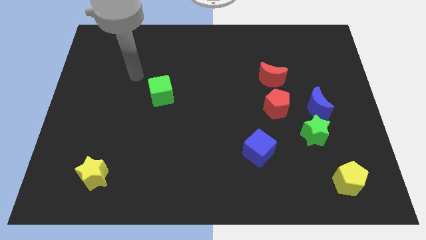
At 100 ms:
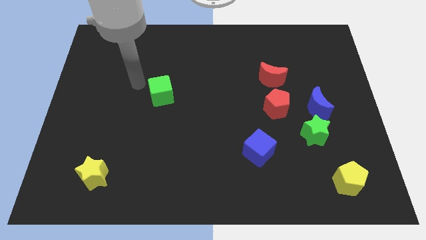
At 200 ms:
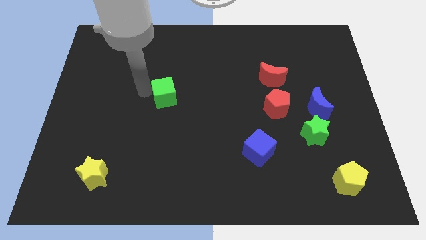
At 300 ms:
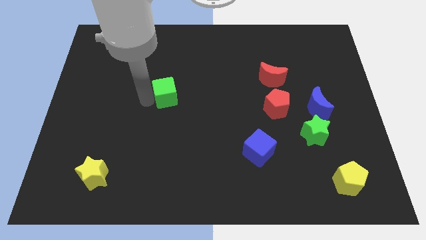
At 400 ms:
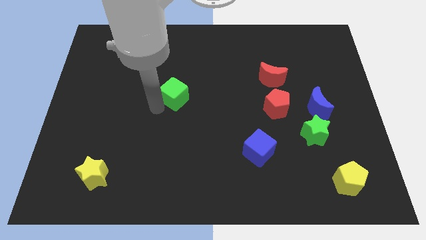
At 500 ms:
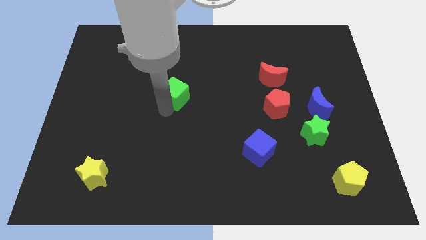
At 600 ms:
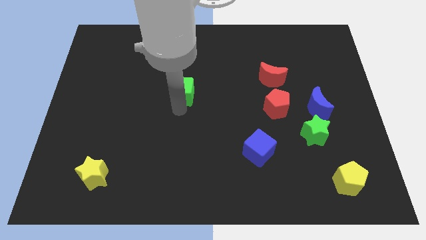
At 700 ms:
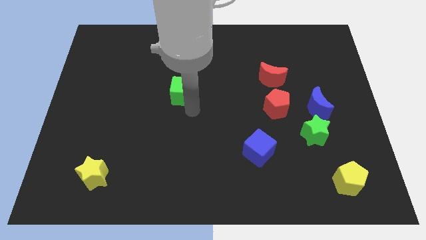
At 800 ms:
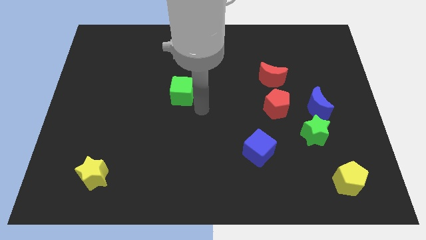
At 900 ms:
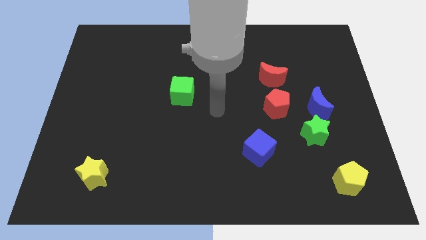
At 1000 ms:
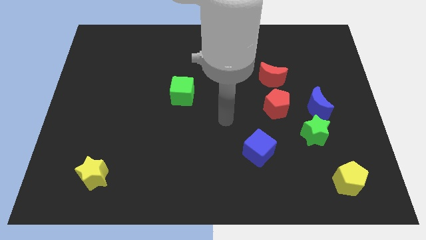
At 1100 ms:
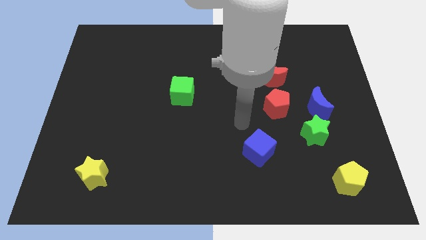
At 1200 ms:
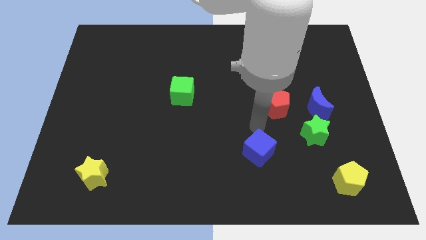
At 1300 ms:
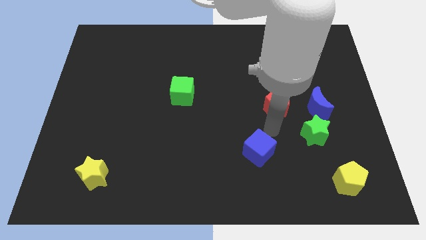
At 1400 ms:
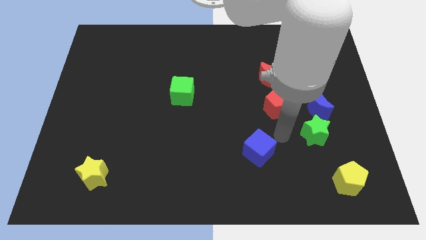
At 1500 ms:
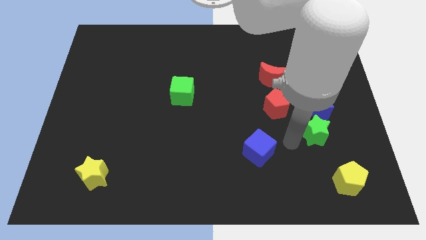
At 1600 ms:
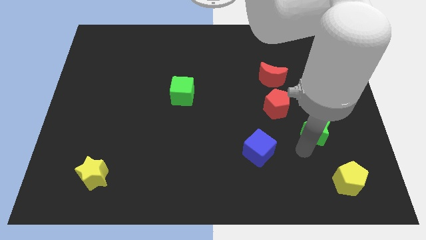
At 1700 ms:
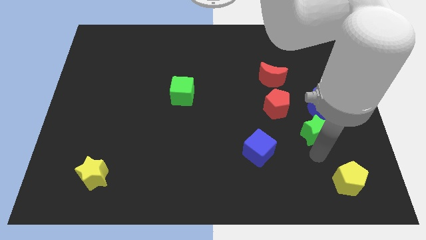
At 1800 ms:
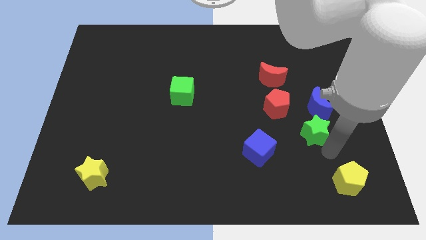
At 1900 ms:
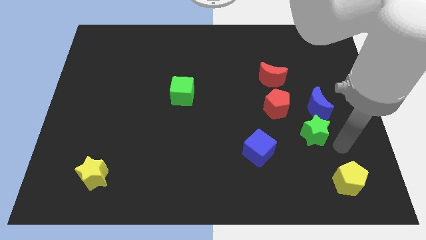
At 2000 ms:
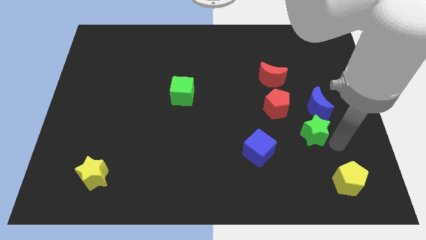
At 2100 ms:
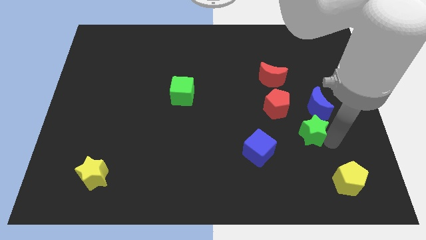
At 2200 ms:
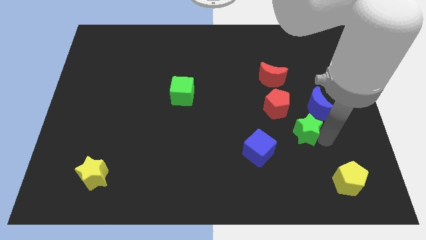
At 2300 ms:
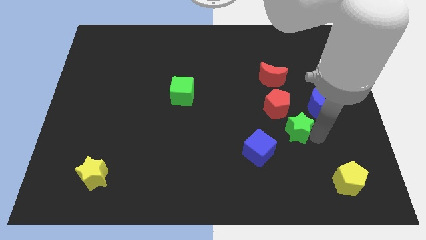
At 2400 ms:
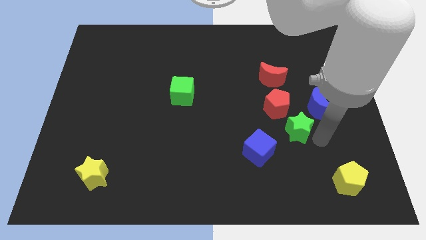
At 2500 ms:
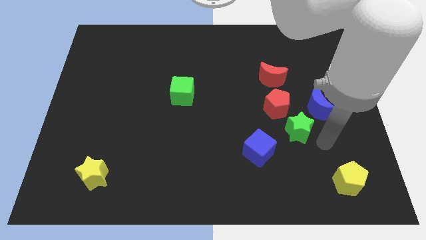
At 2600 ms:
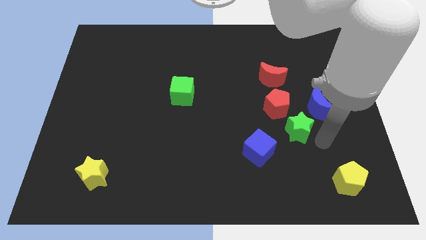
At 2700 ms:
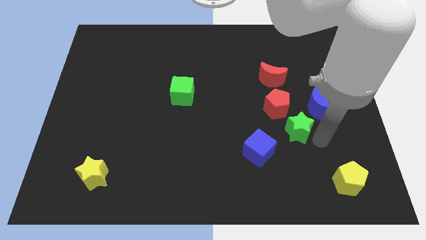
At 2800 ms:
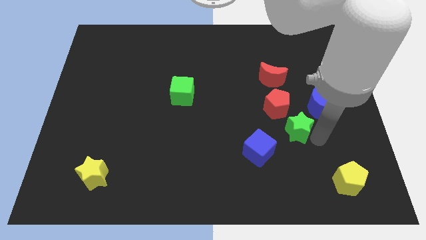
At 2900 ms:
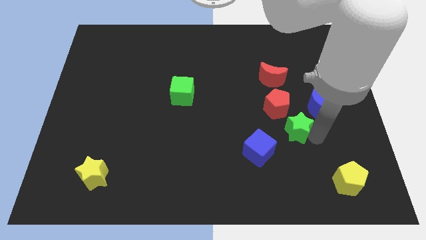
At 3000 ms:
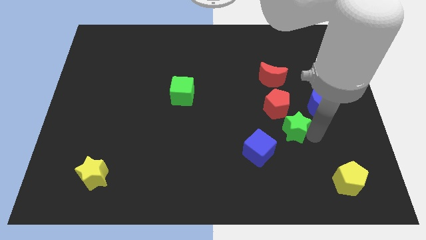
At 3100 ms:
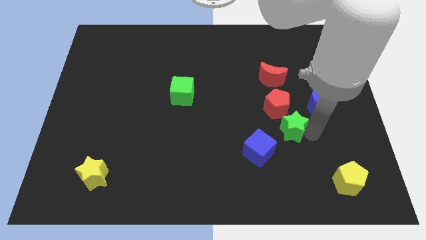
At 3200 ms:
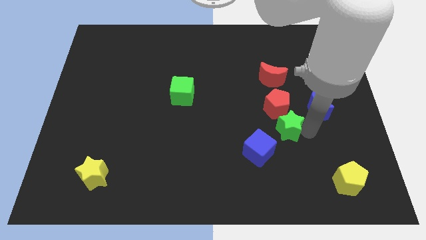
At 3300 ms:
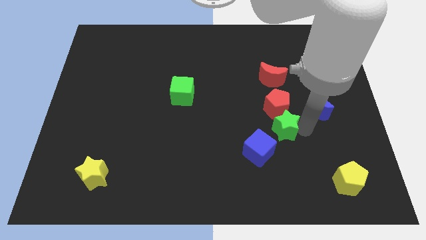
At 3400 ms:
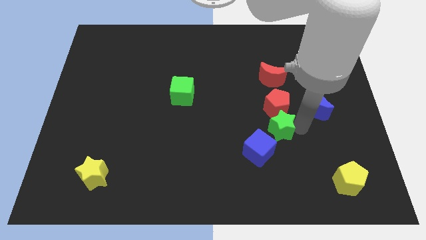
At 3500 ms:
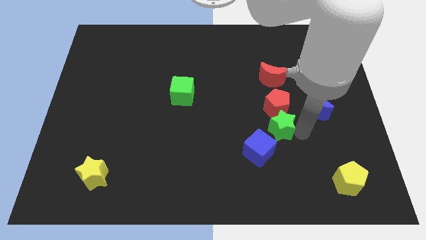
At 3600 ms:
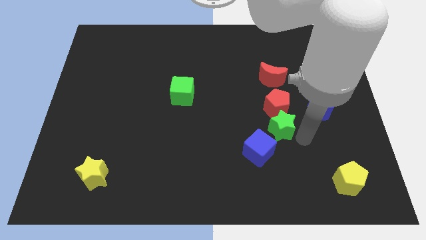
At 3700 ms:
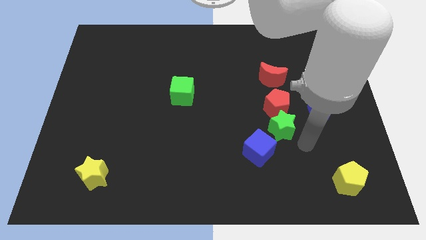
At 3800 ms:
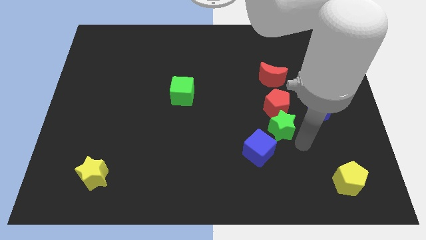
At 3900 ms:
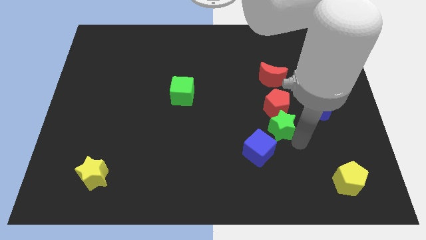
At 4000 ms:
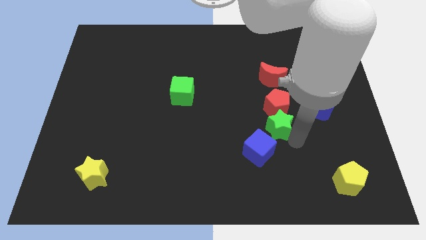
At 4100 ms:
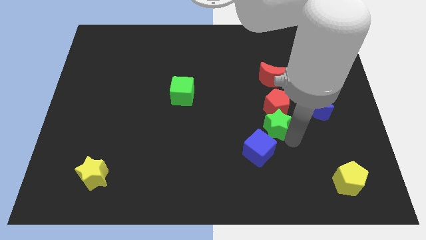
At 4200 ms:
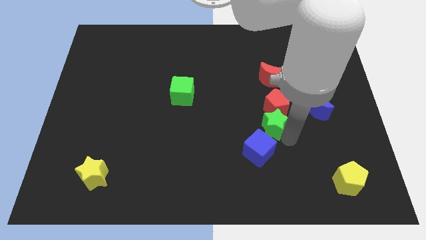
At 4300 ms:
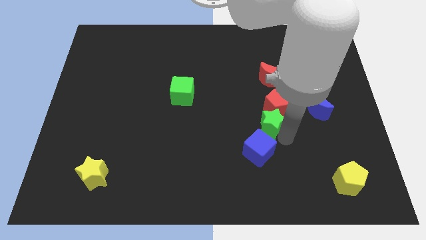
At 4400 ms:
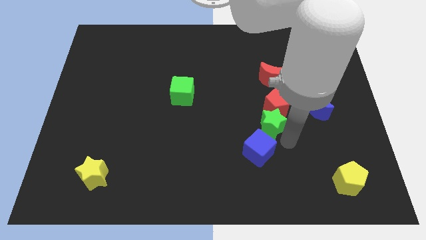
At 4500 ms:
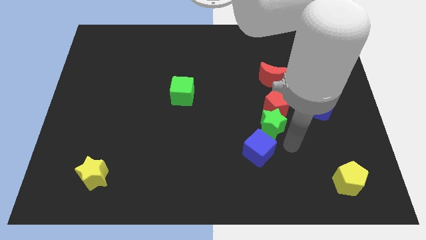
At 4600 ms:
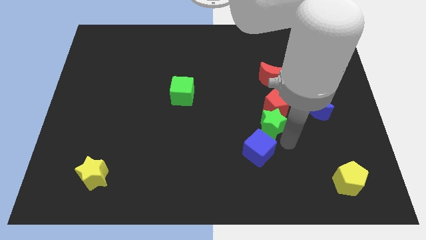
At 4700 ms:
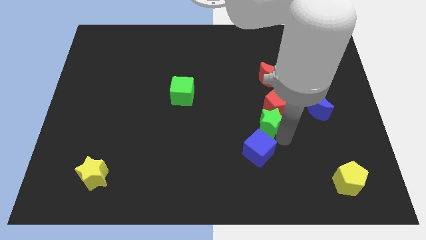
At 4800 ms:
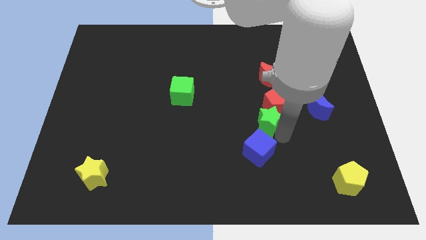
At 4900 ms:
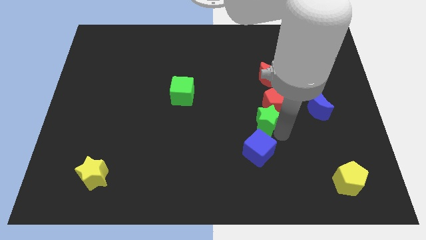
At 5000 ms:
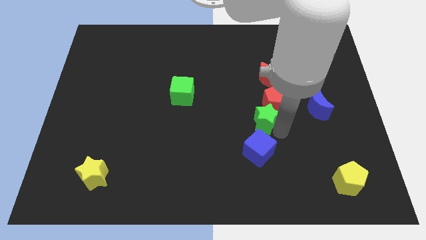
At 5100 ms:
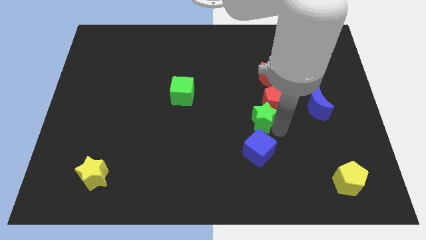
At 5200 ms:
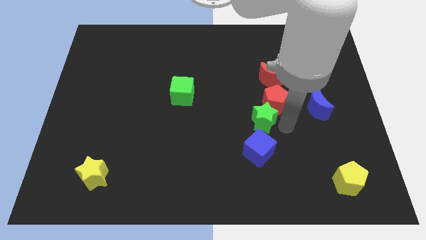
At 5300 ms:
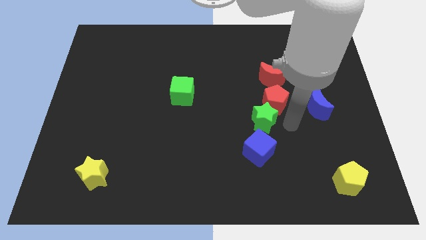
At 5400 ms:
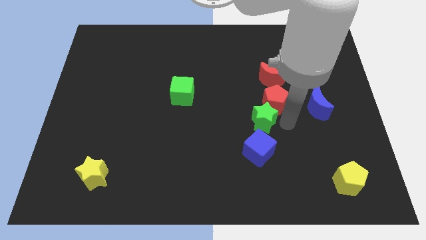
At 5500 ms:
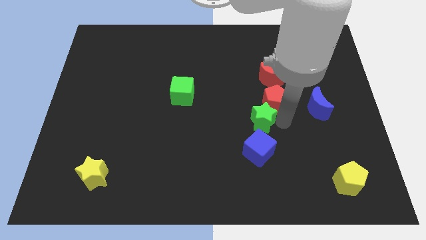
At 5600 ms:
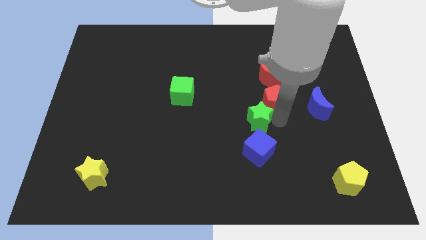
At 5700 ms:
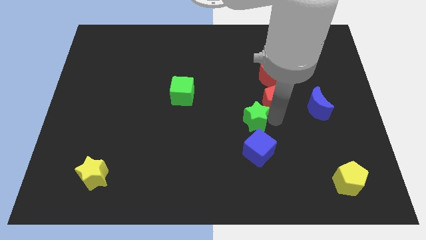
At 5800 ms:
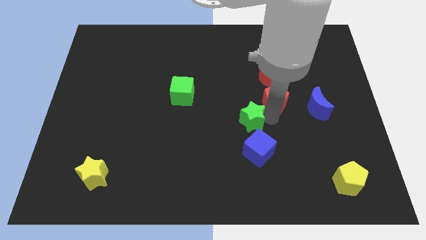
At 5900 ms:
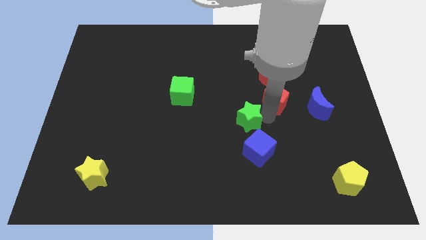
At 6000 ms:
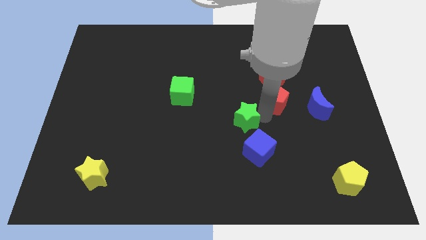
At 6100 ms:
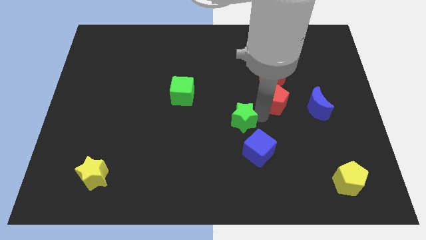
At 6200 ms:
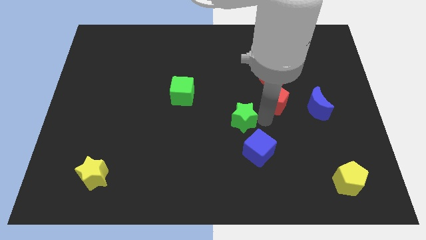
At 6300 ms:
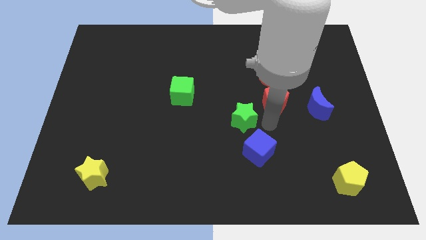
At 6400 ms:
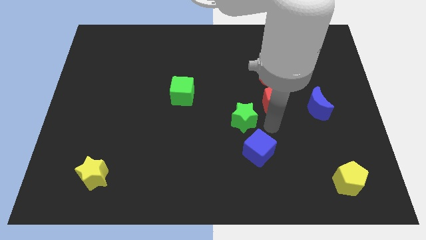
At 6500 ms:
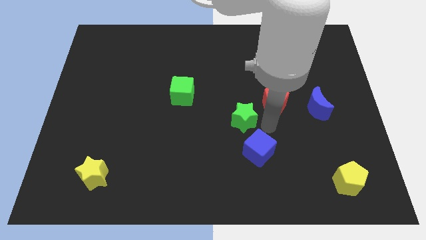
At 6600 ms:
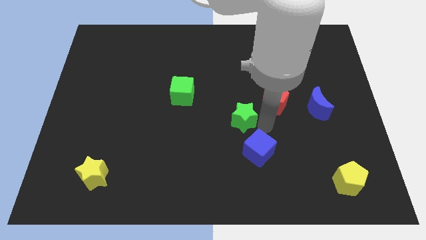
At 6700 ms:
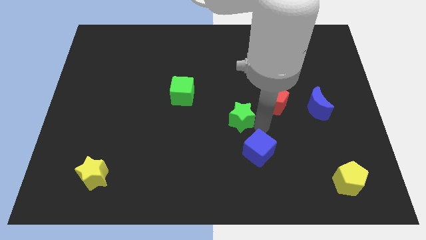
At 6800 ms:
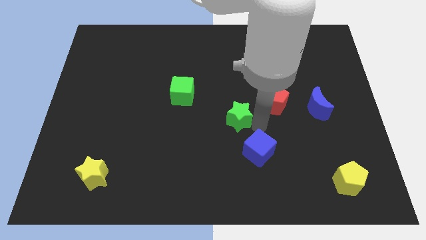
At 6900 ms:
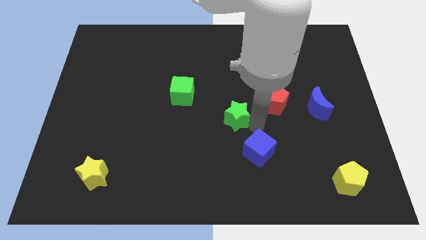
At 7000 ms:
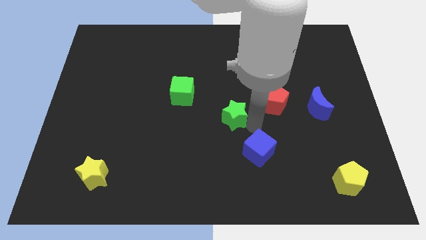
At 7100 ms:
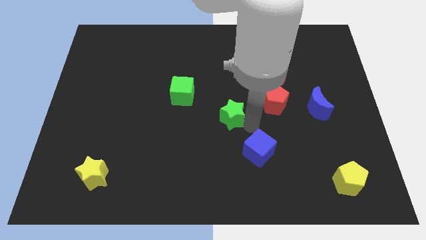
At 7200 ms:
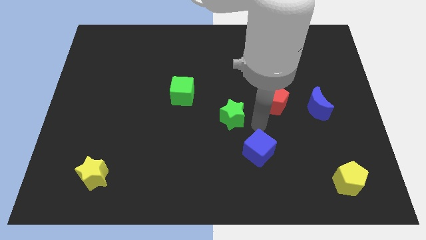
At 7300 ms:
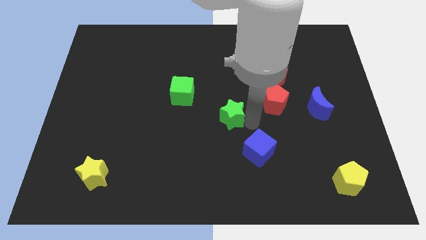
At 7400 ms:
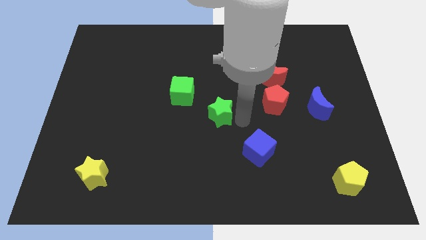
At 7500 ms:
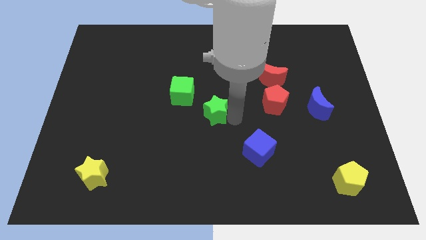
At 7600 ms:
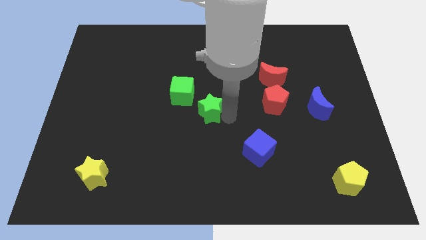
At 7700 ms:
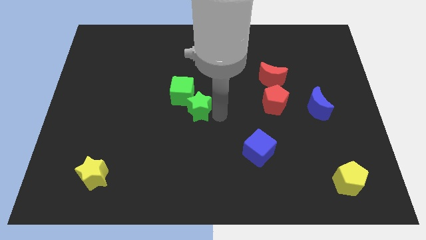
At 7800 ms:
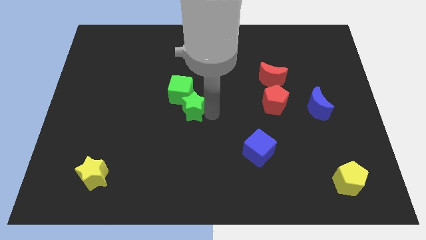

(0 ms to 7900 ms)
slide the green star to the green cube
